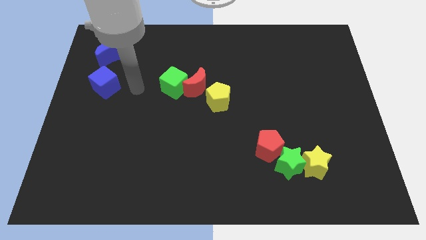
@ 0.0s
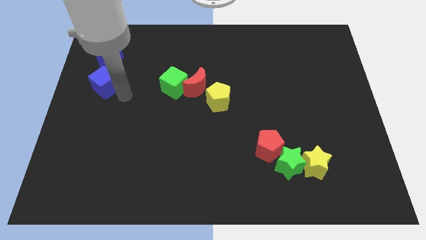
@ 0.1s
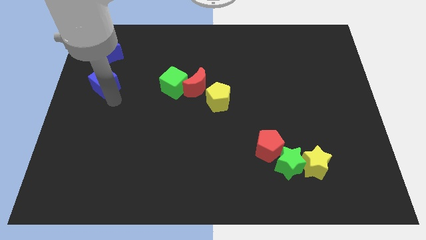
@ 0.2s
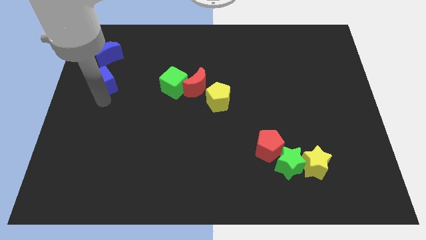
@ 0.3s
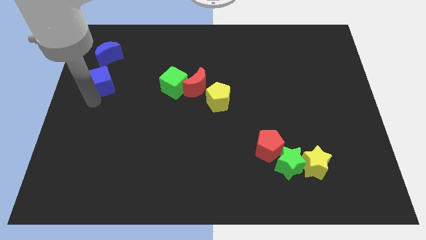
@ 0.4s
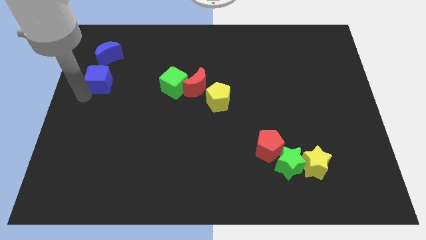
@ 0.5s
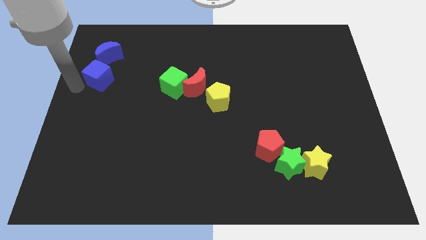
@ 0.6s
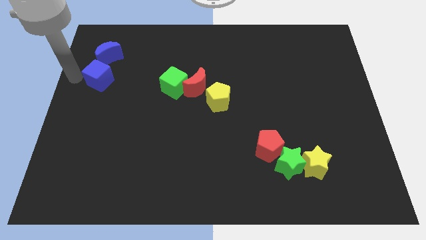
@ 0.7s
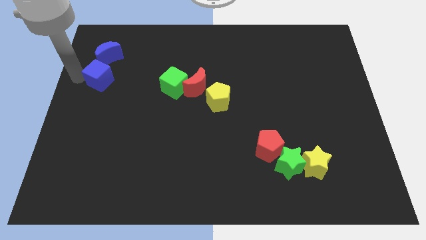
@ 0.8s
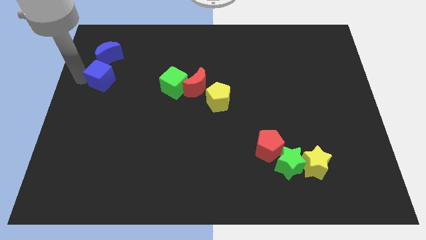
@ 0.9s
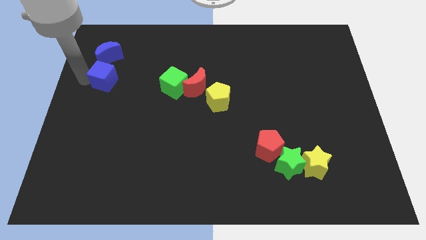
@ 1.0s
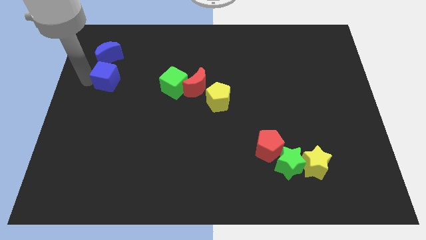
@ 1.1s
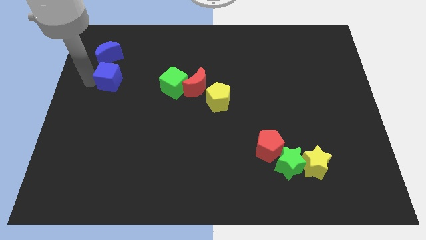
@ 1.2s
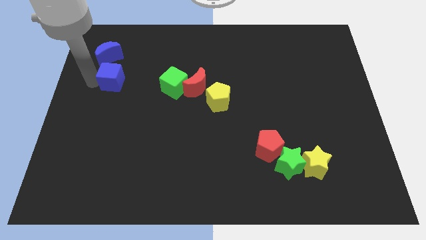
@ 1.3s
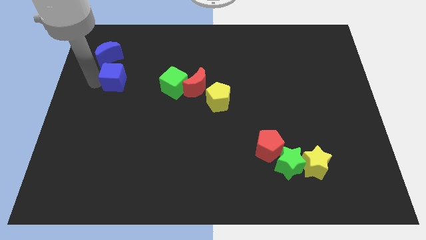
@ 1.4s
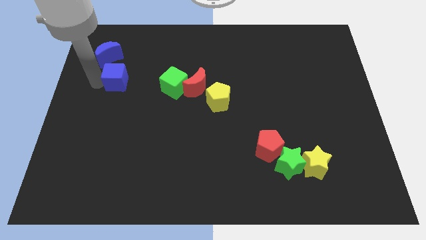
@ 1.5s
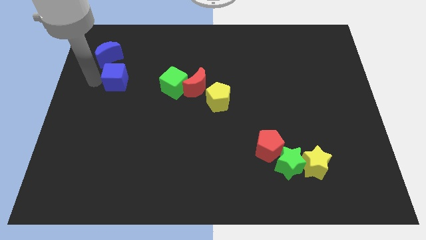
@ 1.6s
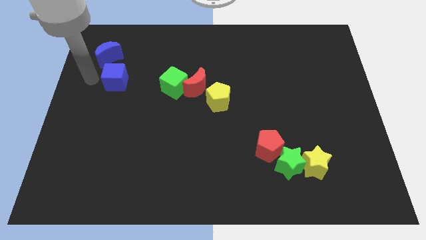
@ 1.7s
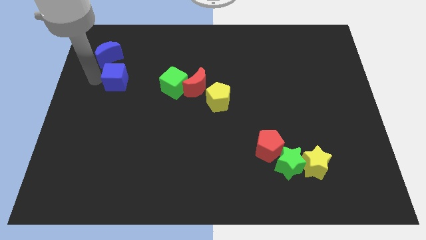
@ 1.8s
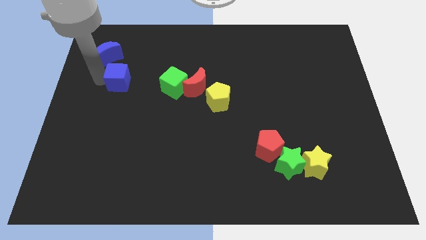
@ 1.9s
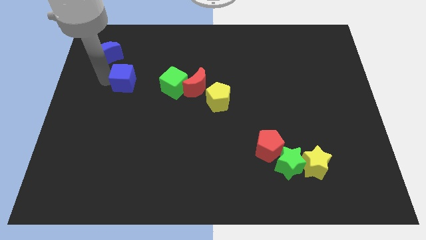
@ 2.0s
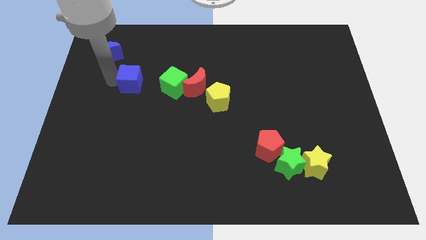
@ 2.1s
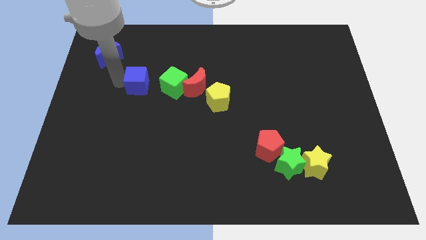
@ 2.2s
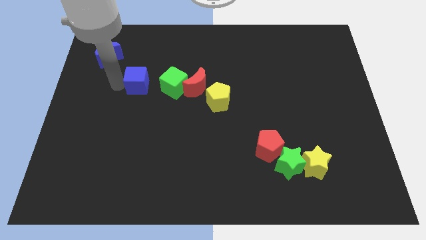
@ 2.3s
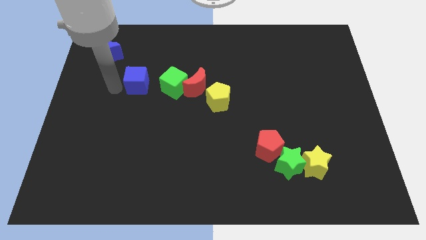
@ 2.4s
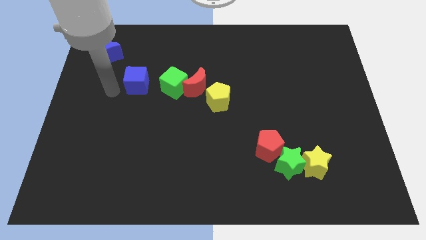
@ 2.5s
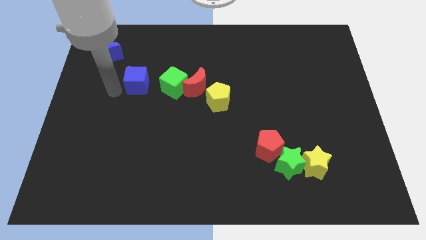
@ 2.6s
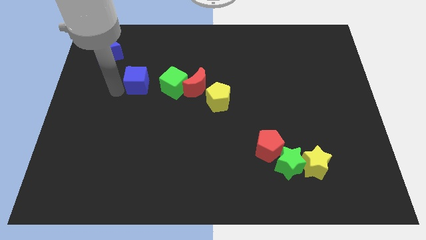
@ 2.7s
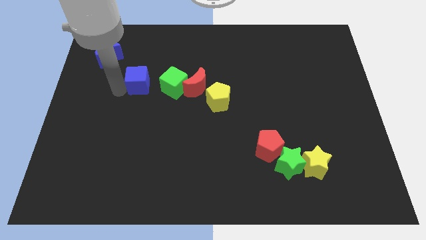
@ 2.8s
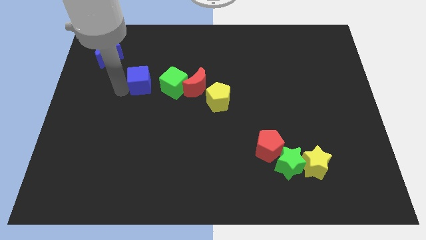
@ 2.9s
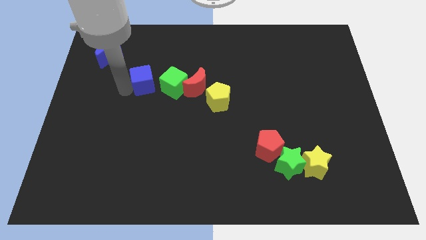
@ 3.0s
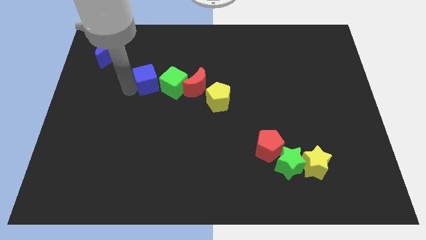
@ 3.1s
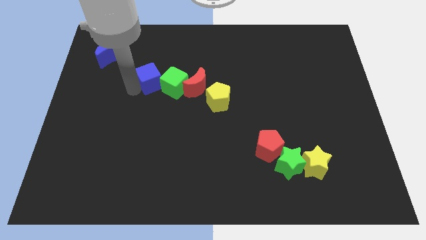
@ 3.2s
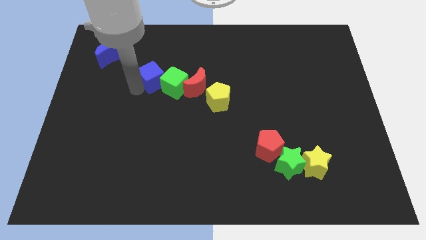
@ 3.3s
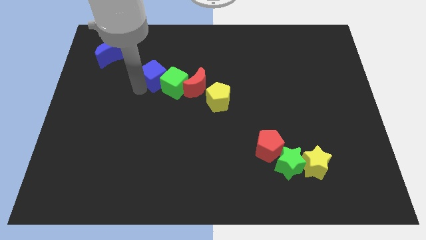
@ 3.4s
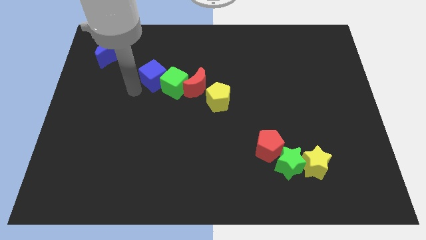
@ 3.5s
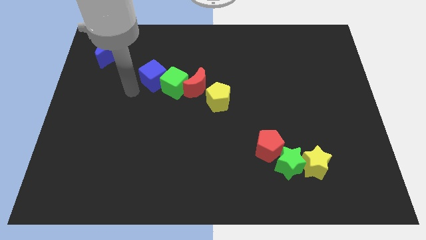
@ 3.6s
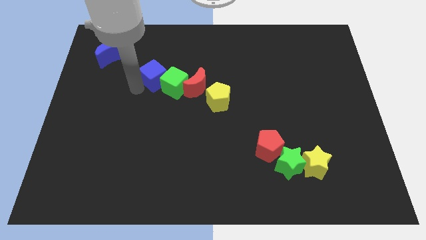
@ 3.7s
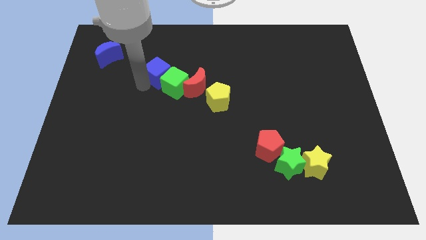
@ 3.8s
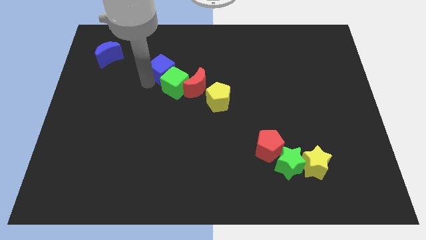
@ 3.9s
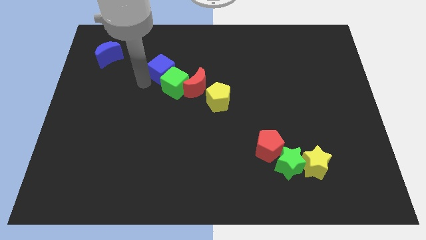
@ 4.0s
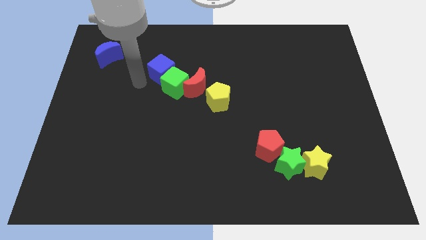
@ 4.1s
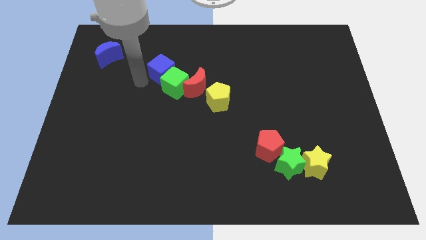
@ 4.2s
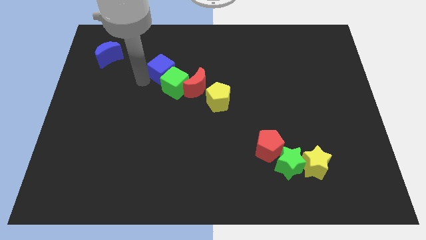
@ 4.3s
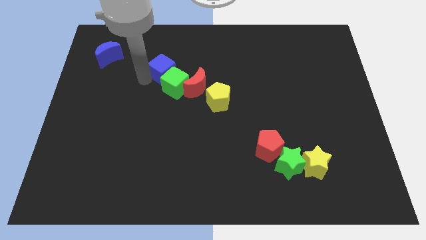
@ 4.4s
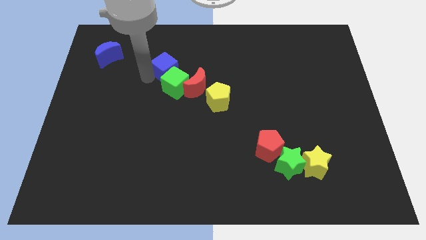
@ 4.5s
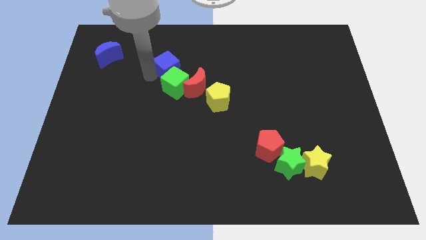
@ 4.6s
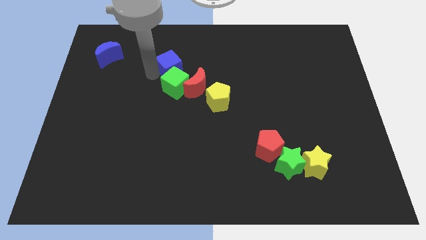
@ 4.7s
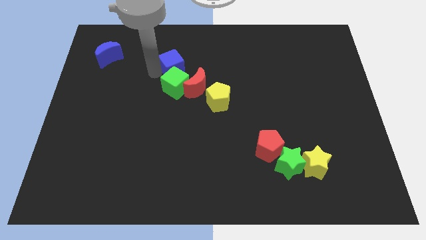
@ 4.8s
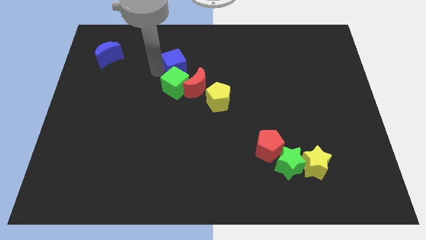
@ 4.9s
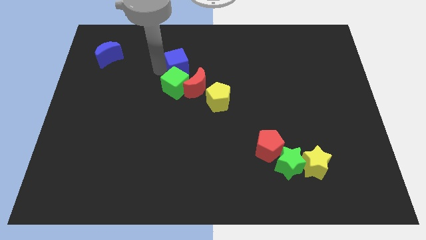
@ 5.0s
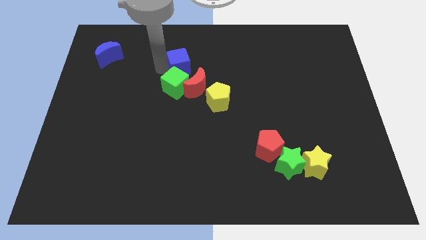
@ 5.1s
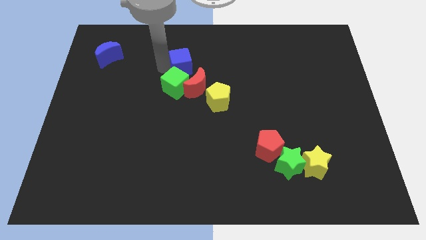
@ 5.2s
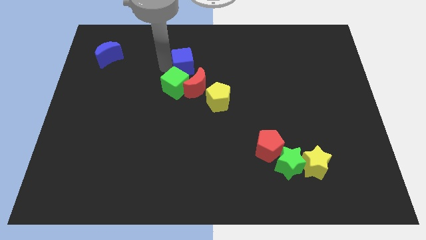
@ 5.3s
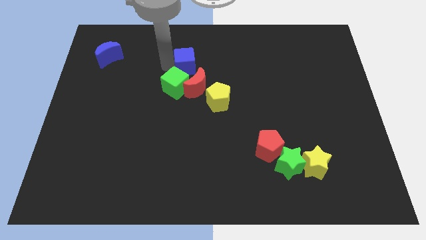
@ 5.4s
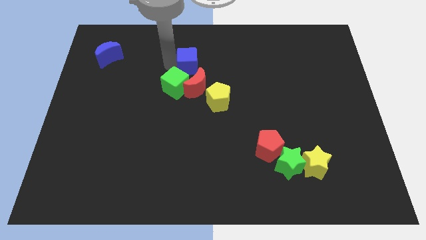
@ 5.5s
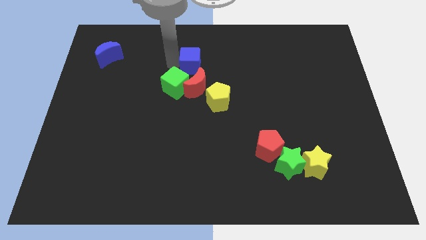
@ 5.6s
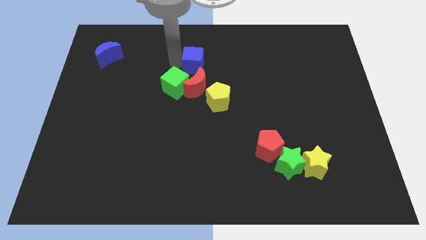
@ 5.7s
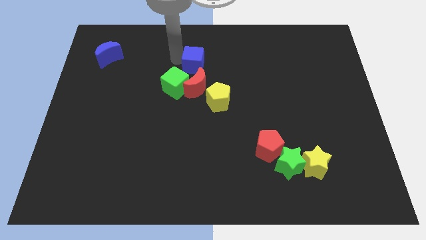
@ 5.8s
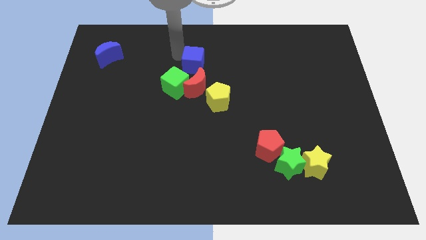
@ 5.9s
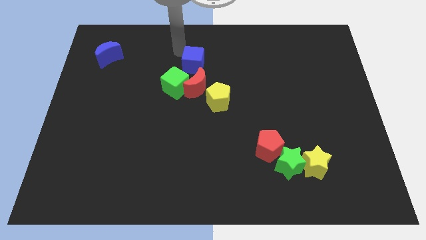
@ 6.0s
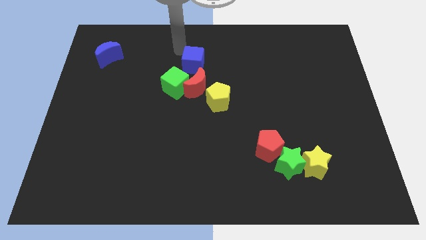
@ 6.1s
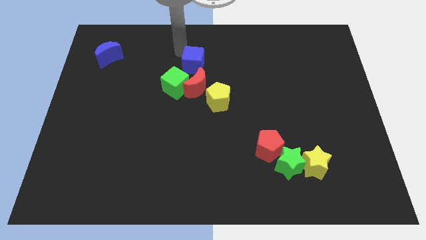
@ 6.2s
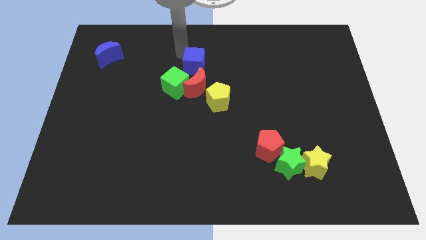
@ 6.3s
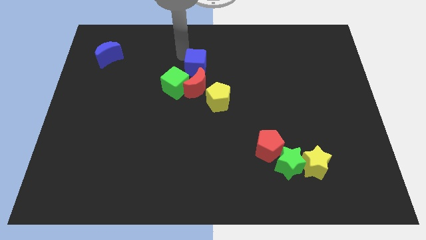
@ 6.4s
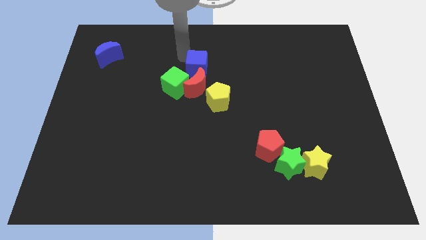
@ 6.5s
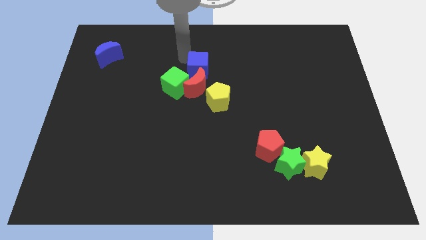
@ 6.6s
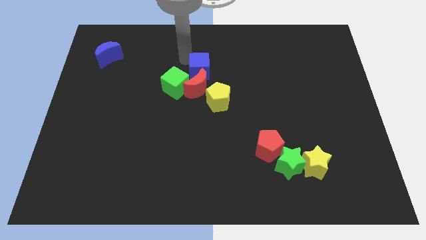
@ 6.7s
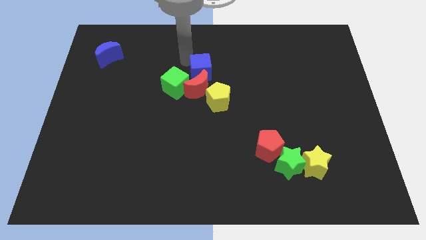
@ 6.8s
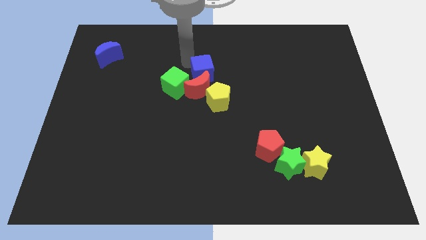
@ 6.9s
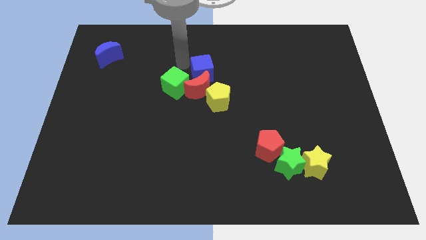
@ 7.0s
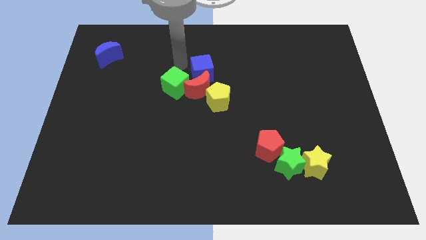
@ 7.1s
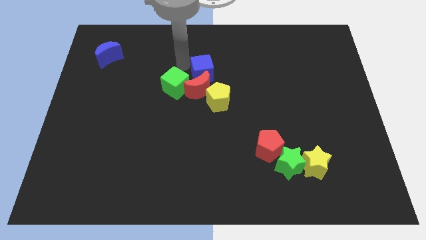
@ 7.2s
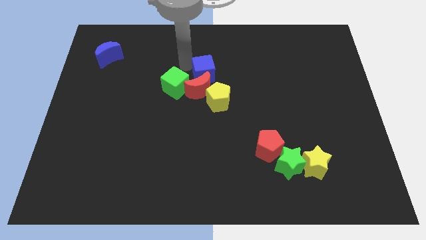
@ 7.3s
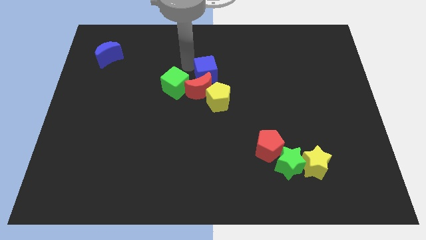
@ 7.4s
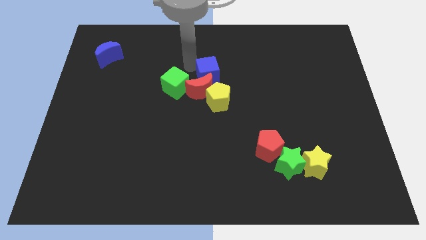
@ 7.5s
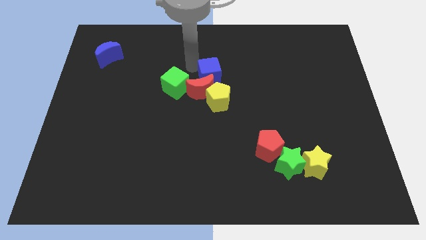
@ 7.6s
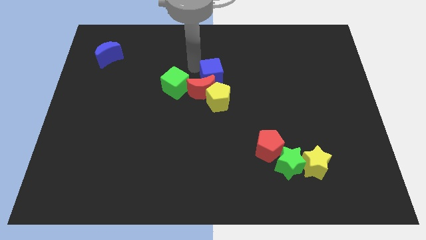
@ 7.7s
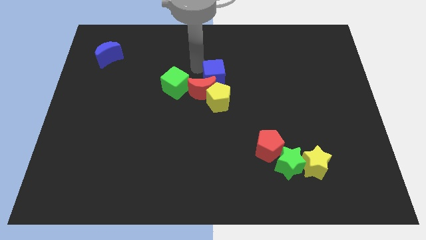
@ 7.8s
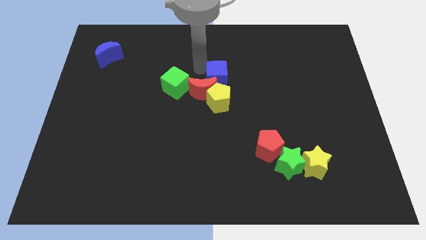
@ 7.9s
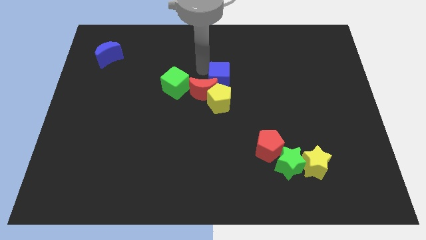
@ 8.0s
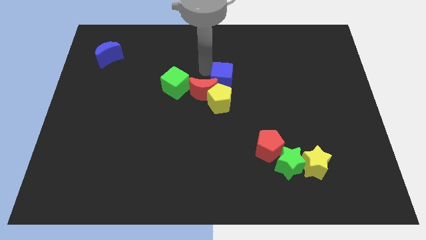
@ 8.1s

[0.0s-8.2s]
push the blue cube to the top right side of the yellow pentagon

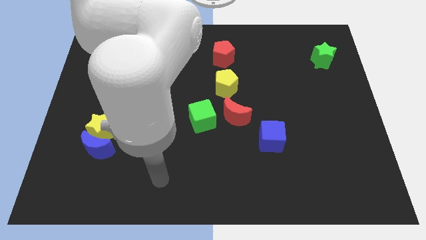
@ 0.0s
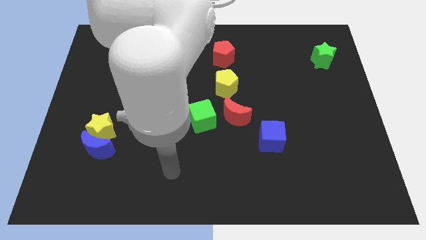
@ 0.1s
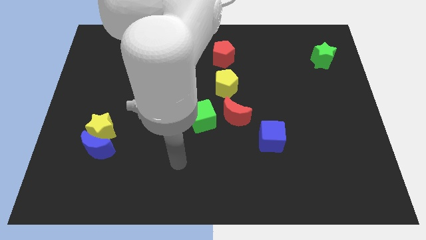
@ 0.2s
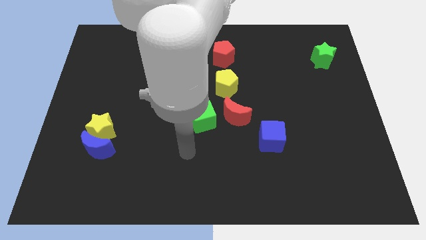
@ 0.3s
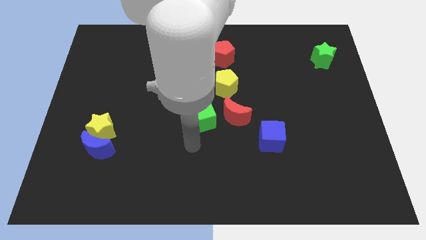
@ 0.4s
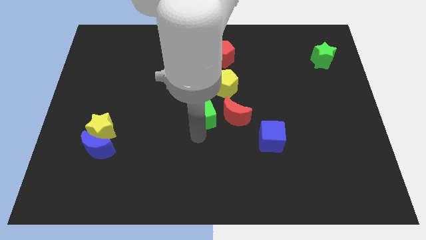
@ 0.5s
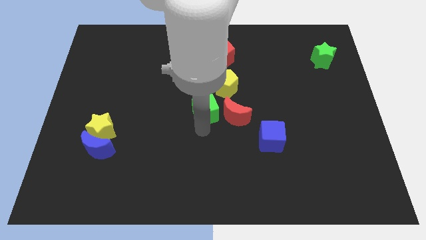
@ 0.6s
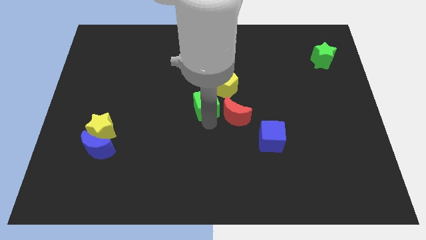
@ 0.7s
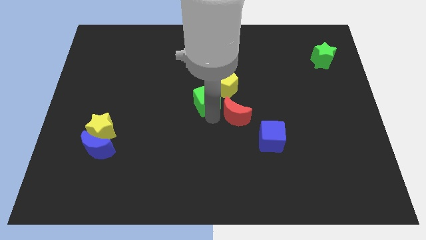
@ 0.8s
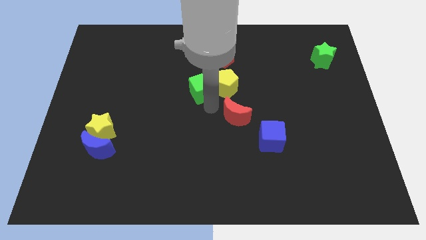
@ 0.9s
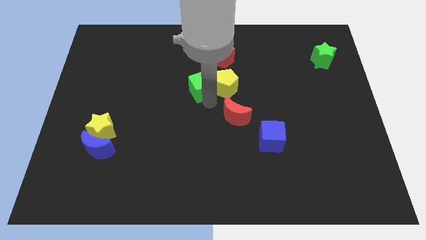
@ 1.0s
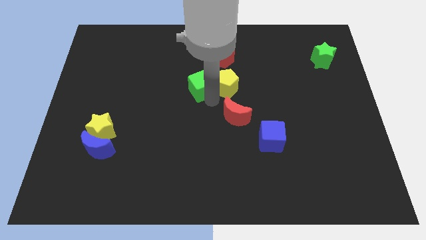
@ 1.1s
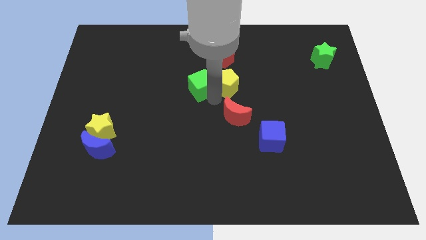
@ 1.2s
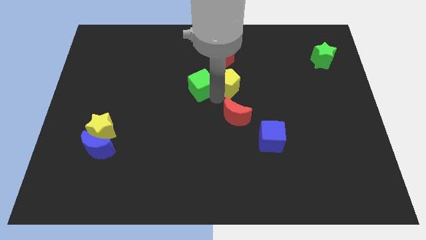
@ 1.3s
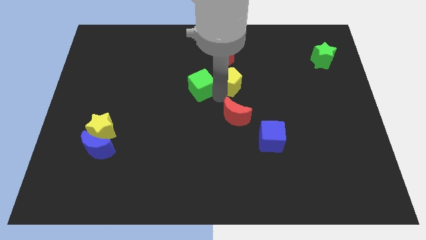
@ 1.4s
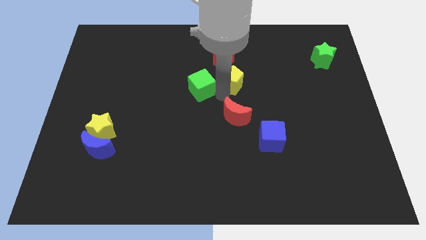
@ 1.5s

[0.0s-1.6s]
put the yellow pentagon to the bottom right of the red pentagon
